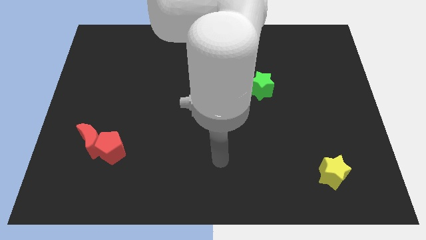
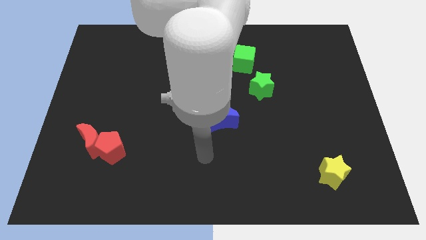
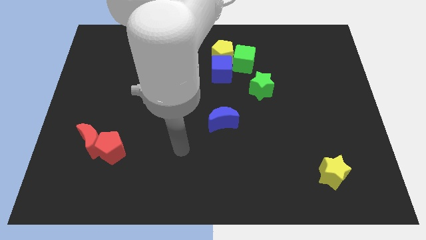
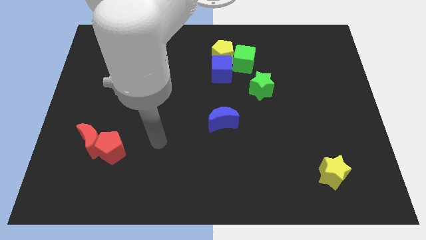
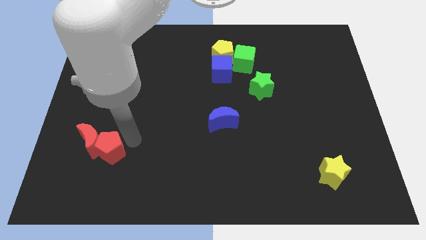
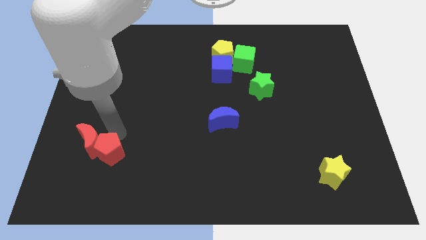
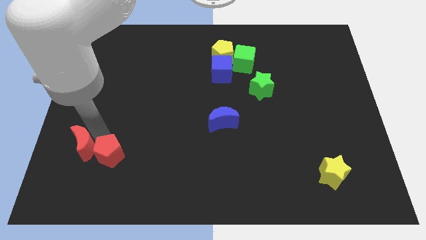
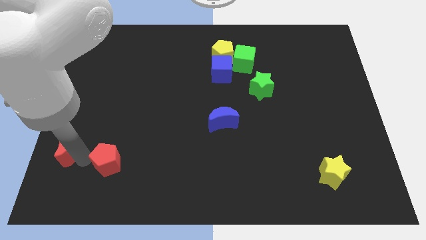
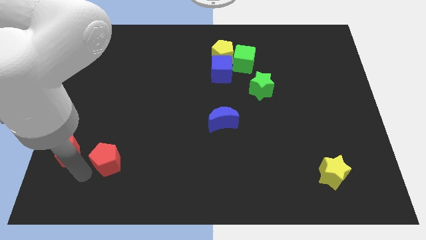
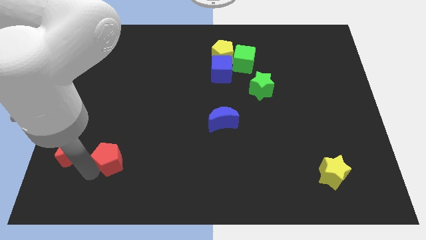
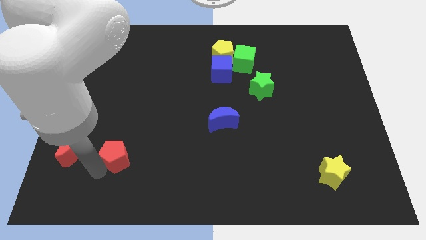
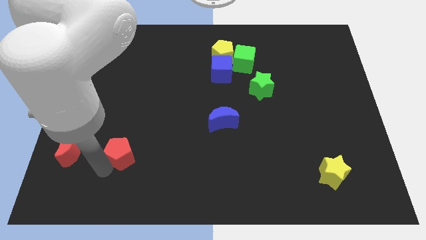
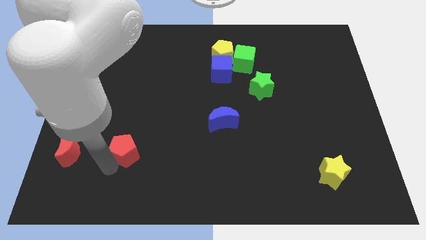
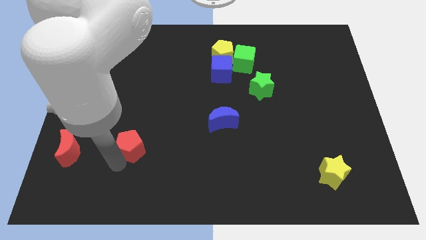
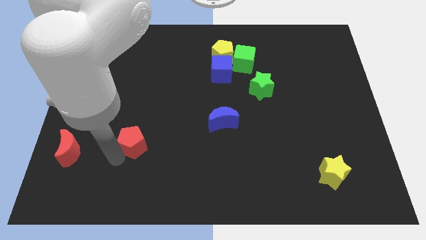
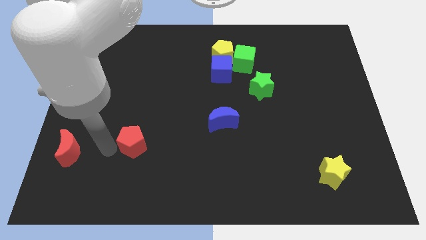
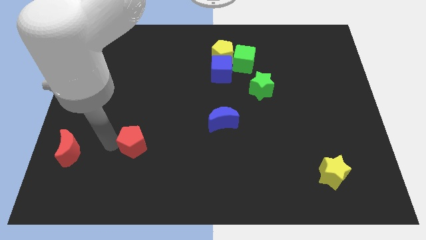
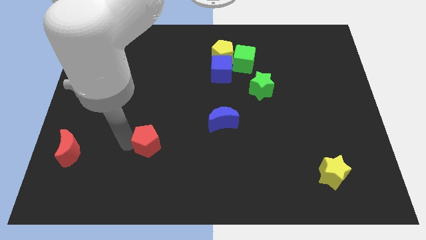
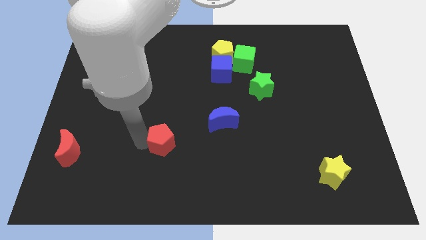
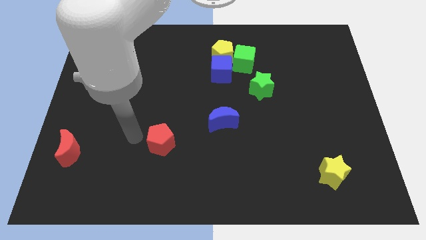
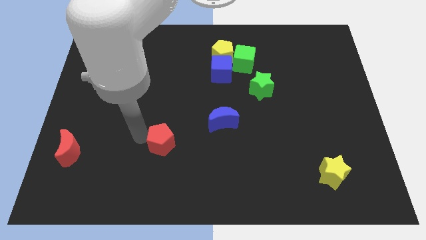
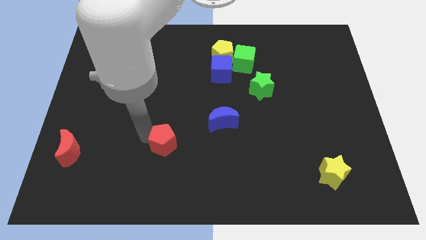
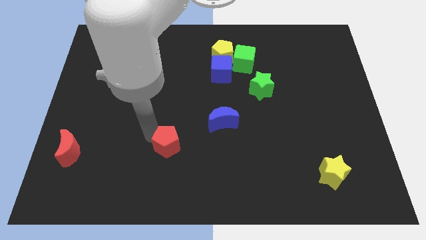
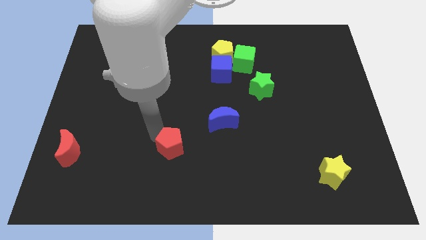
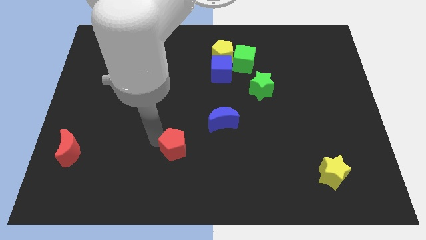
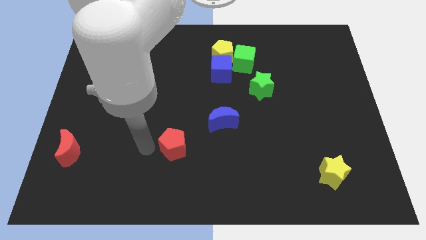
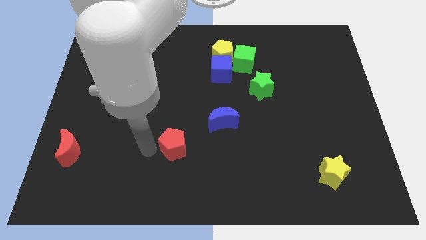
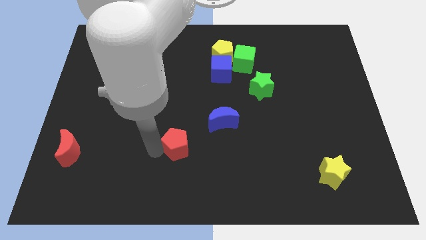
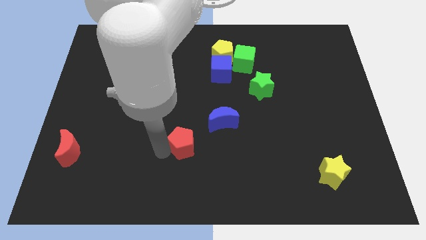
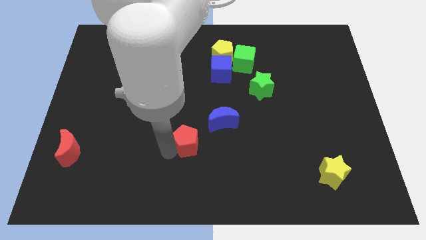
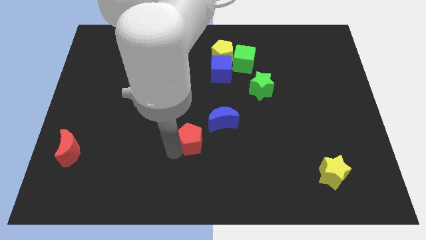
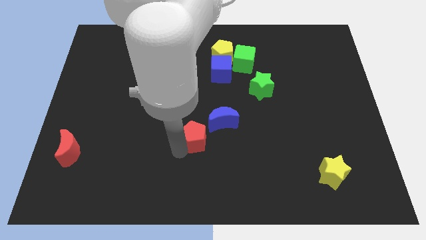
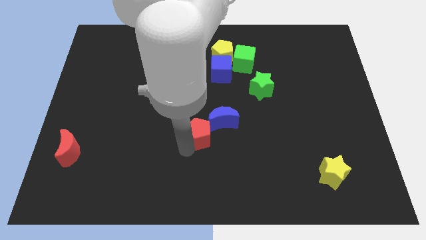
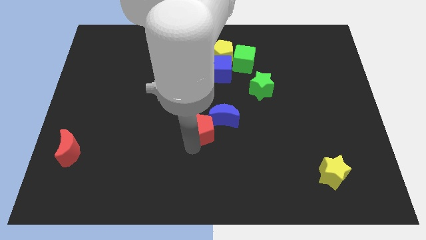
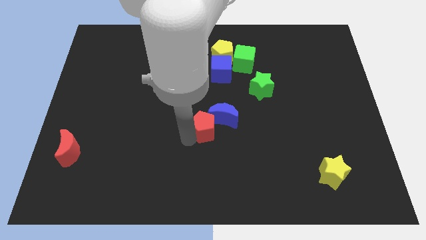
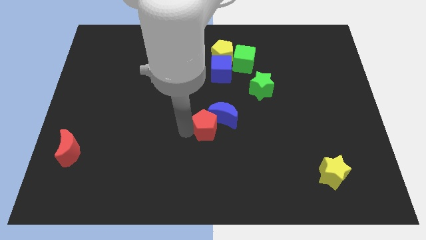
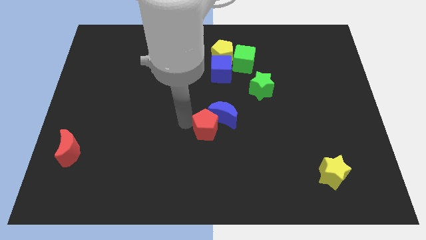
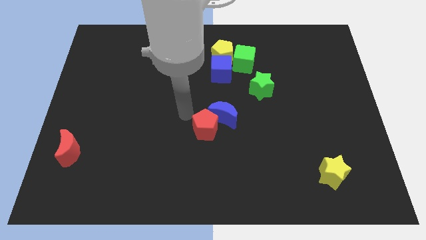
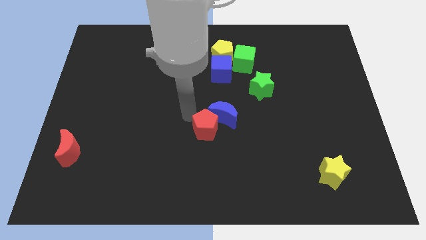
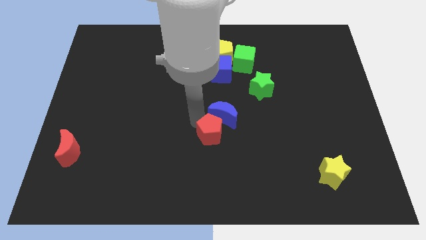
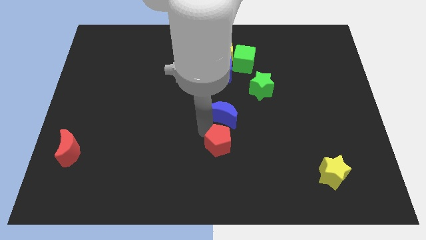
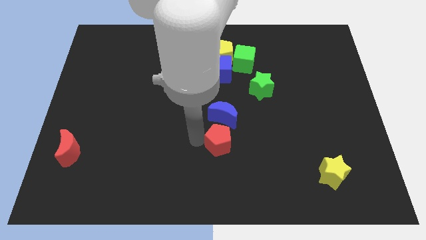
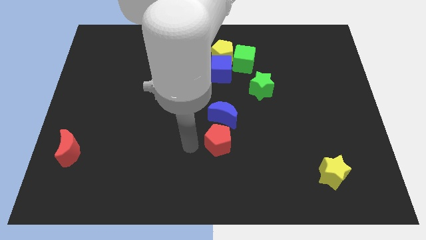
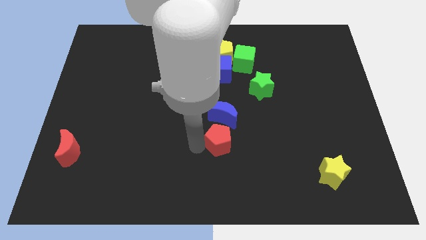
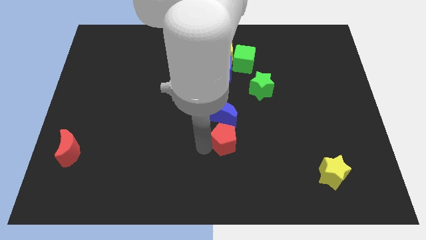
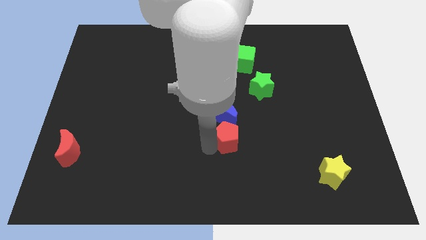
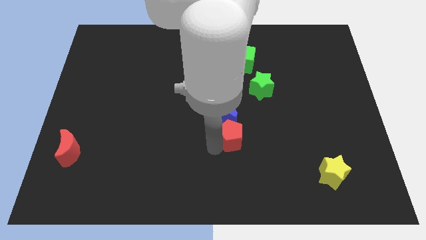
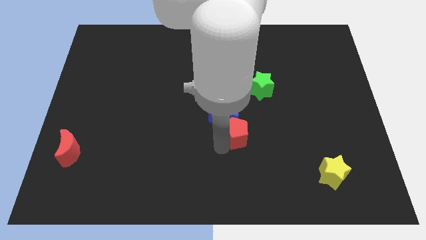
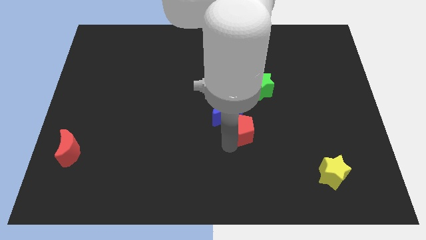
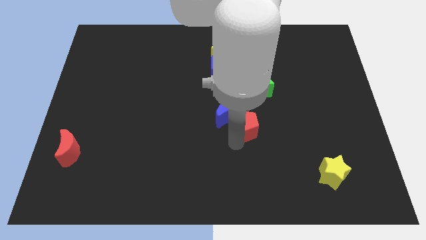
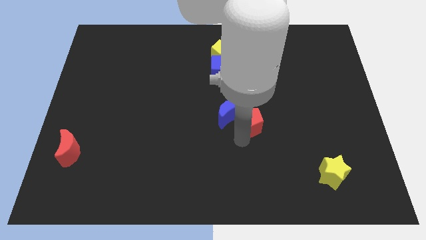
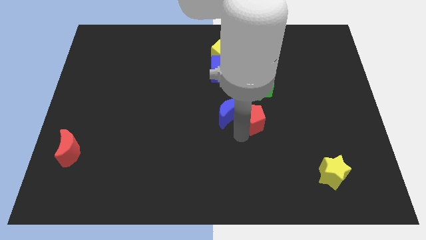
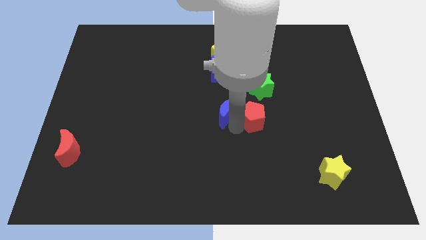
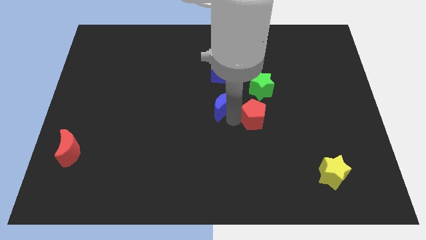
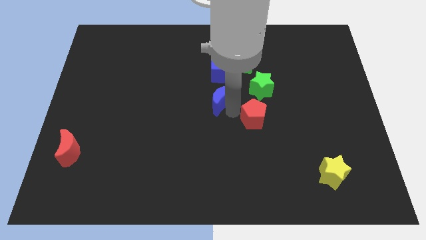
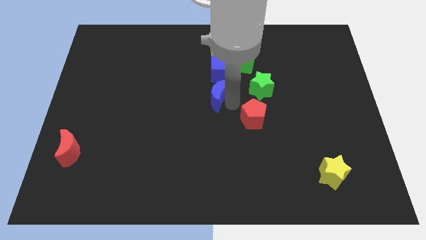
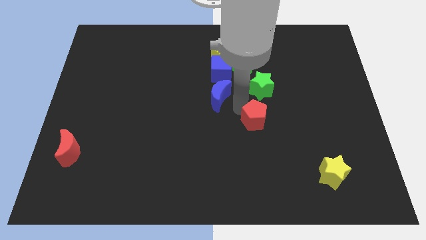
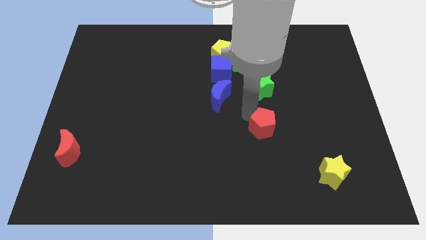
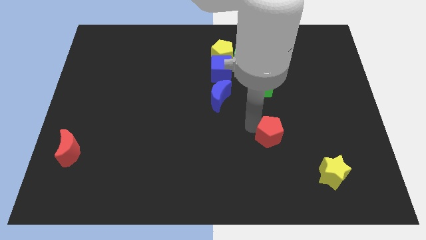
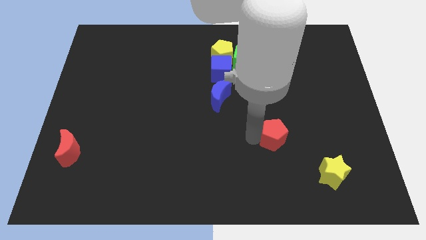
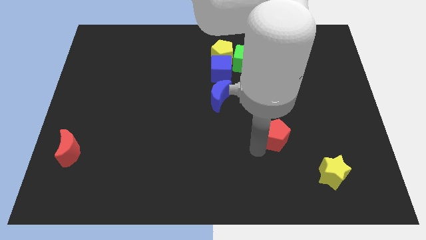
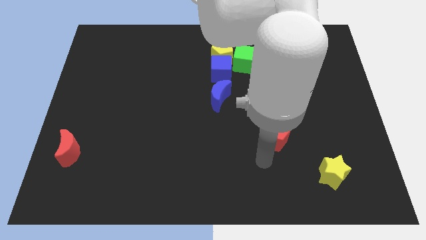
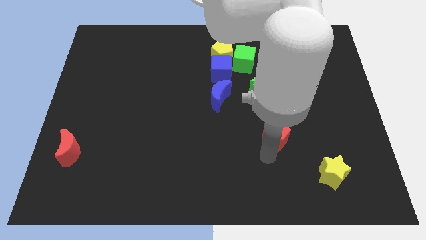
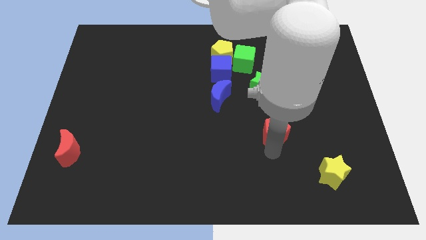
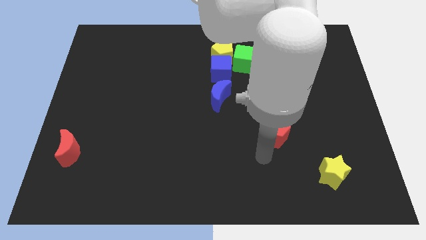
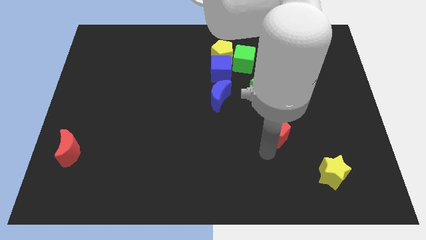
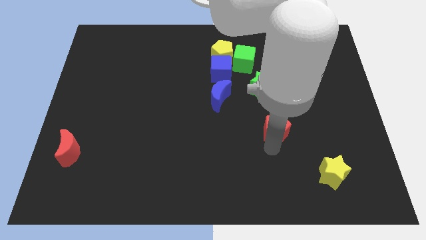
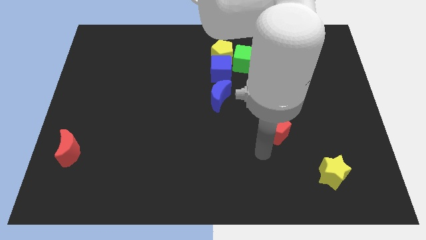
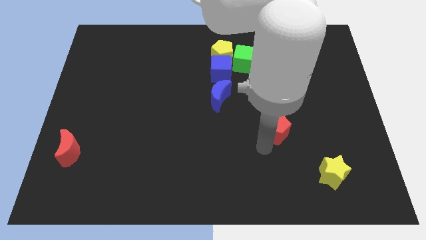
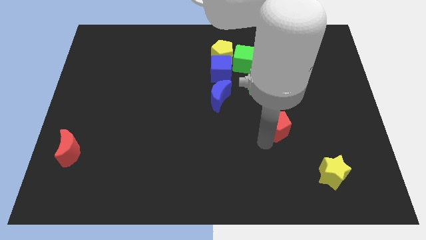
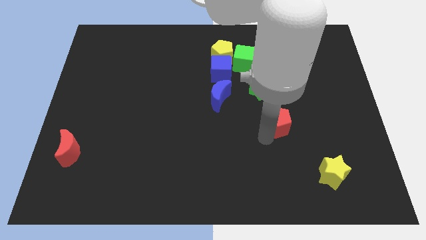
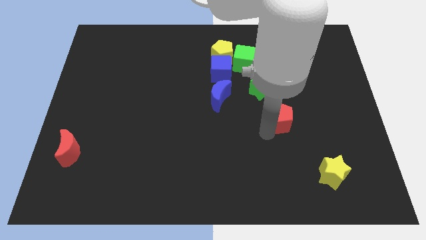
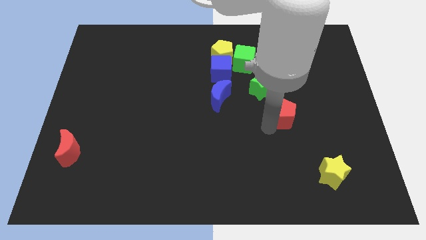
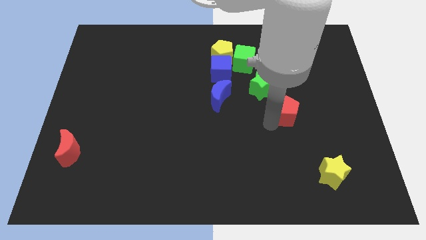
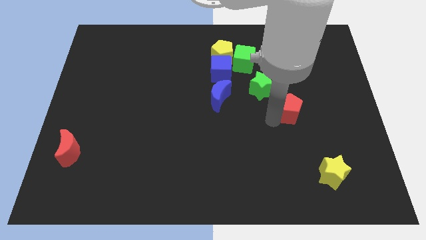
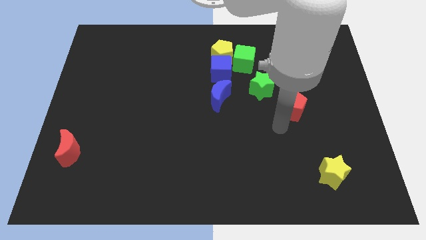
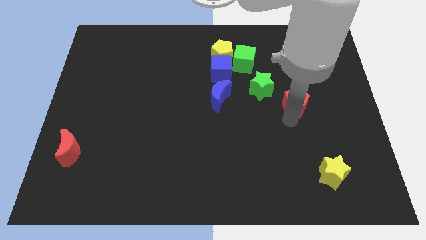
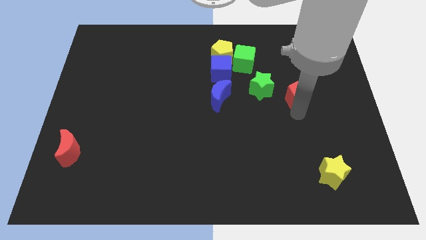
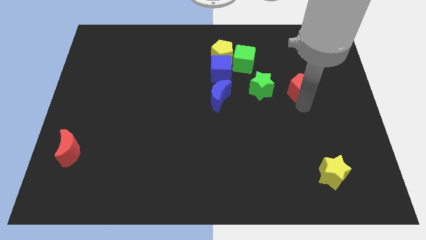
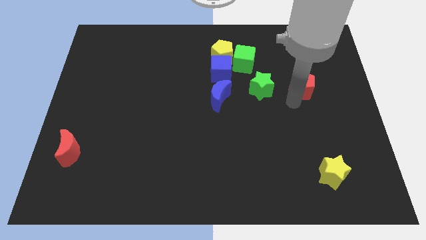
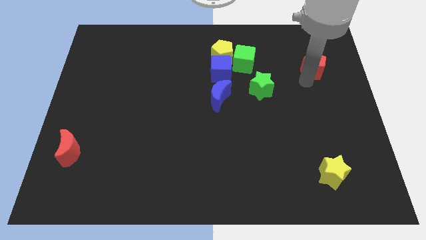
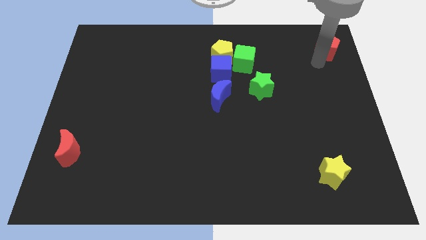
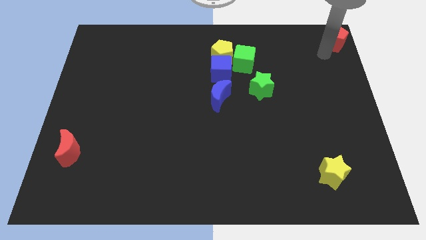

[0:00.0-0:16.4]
put the red pentagon to the top right of the board
